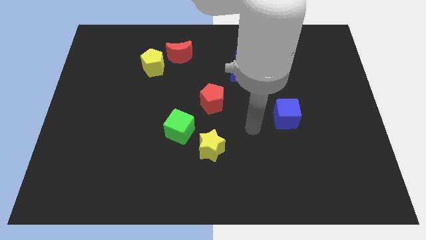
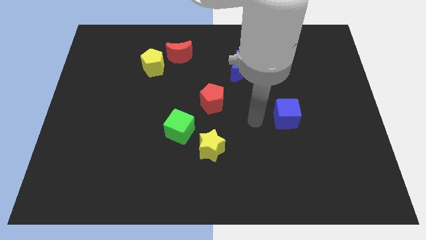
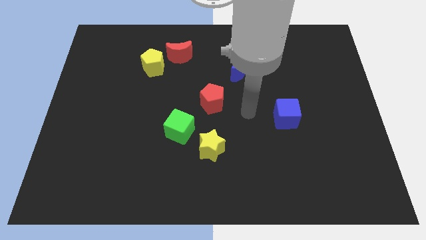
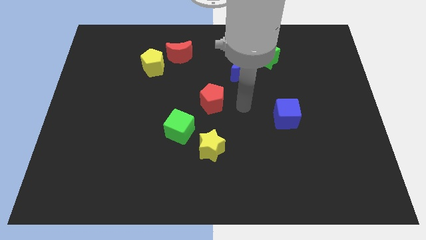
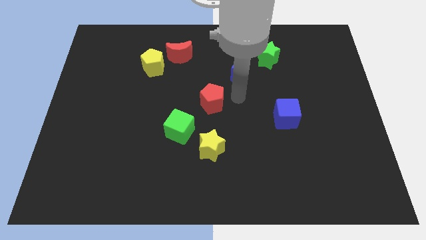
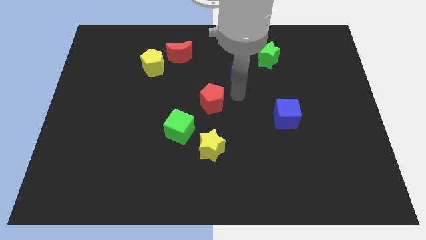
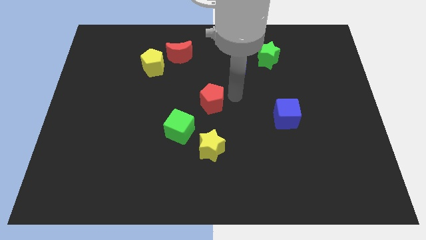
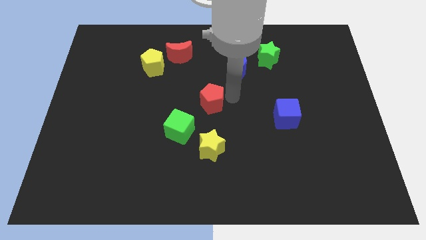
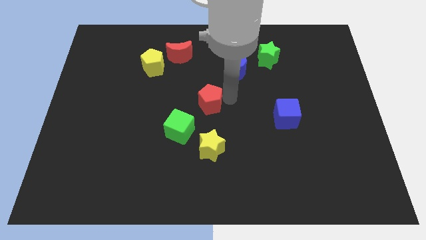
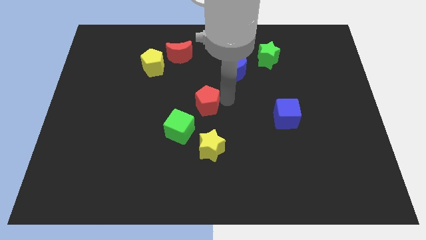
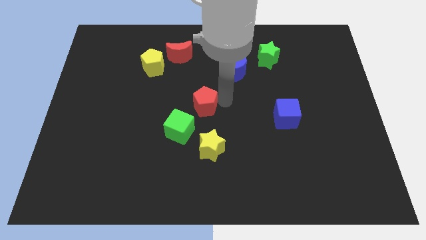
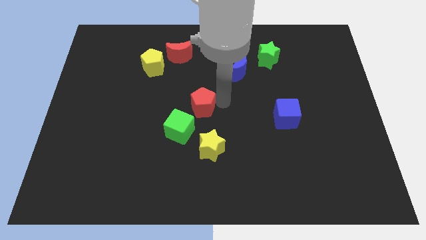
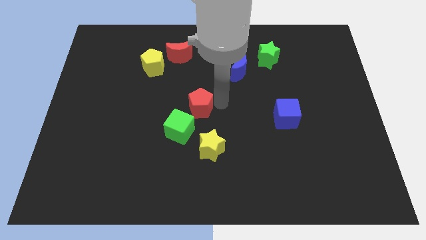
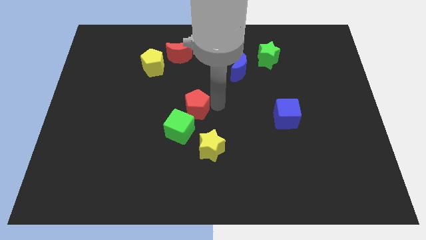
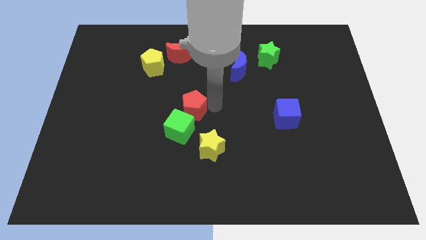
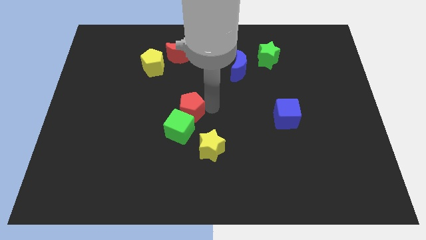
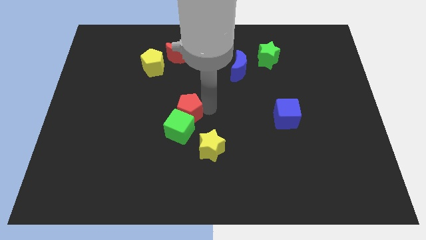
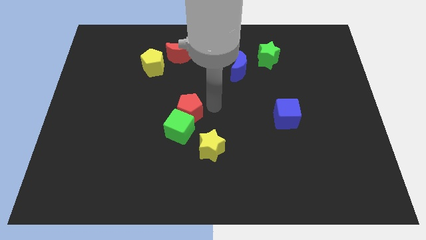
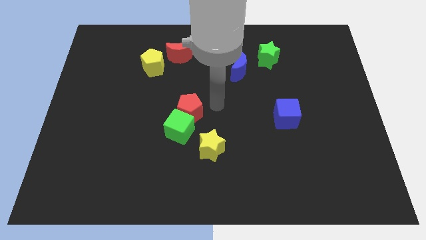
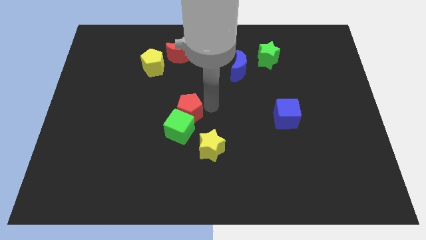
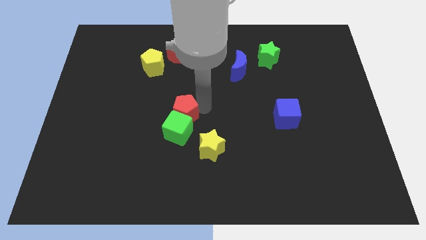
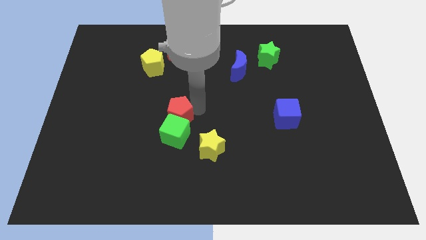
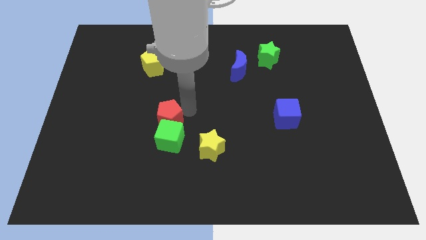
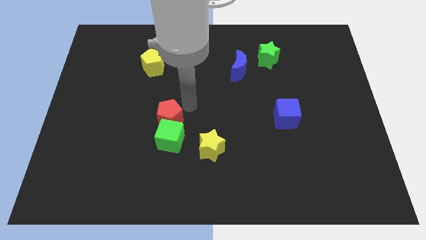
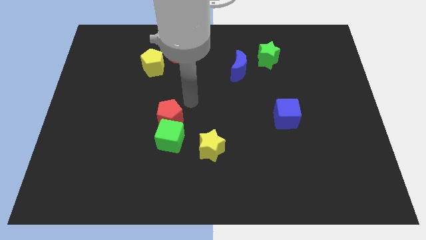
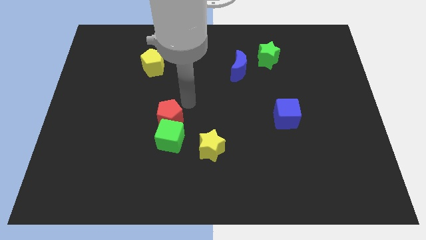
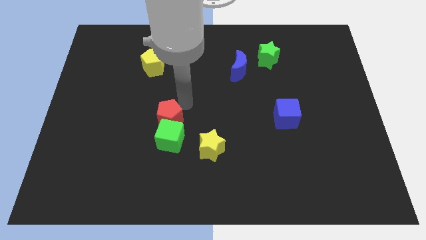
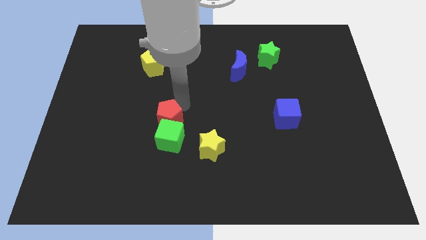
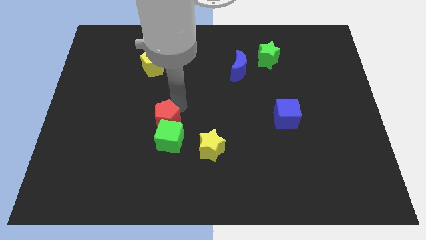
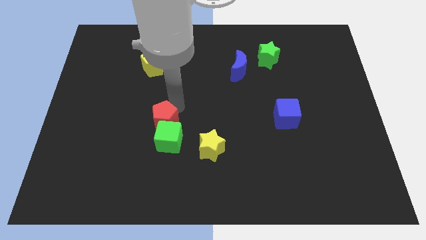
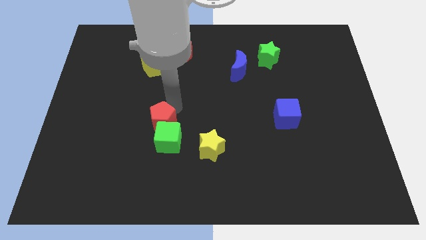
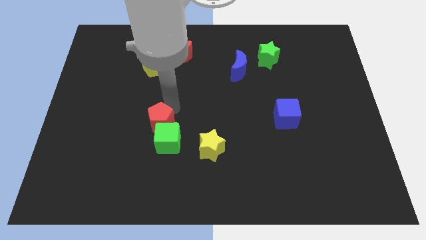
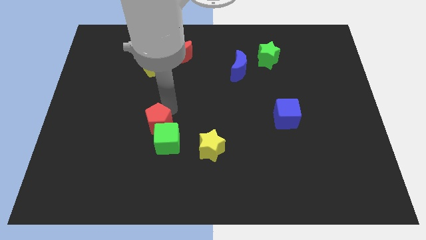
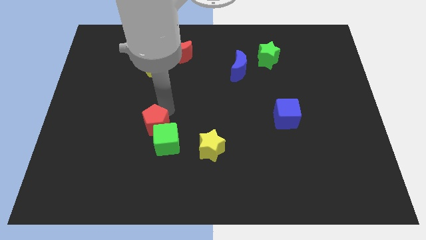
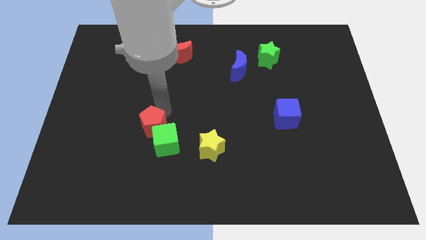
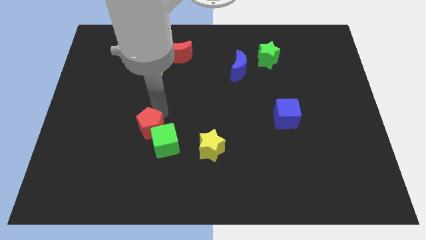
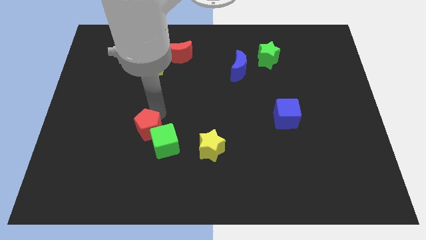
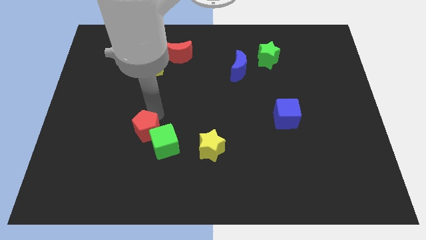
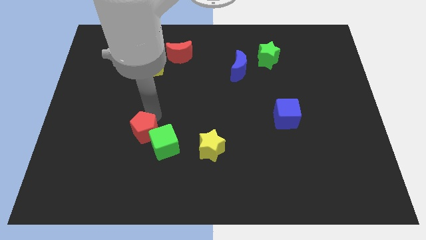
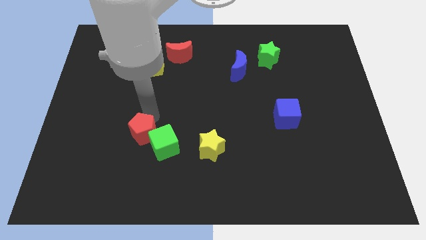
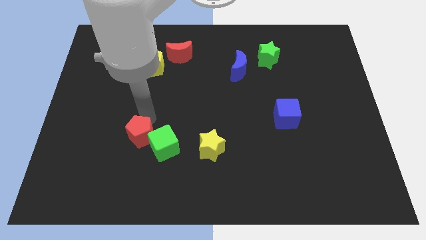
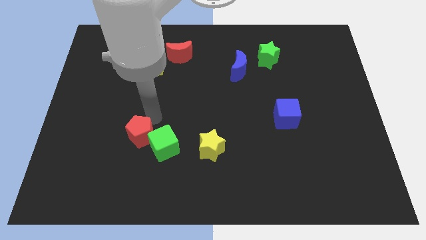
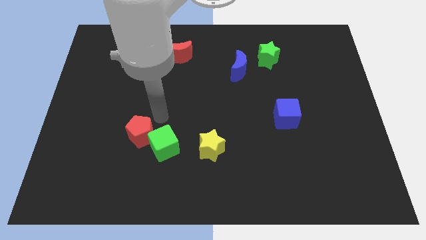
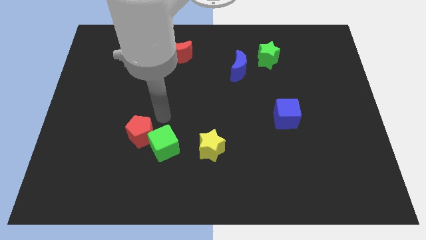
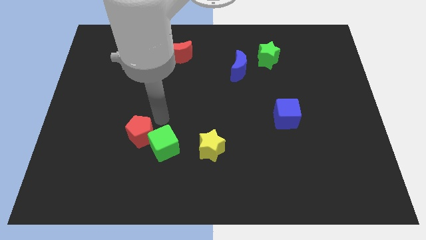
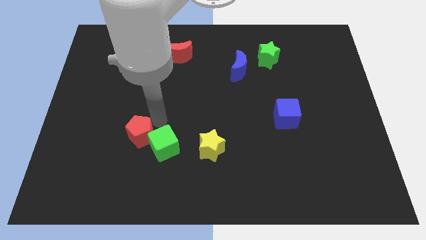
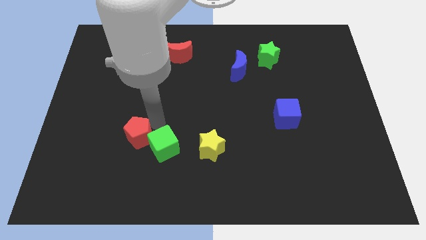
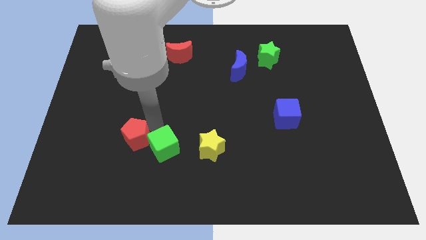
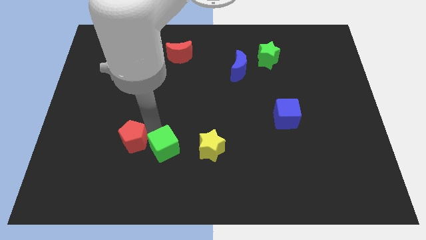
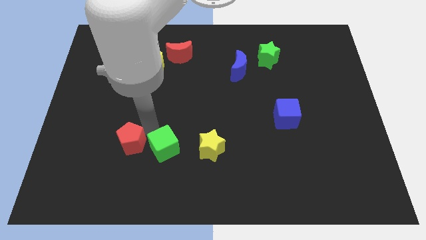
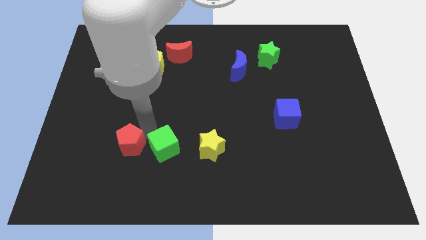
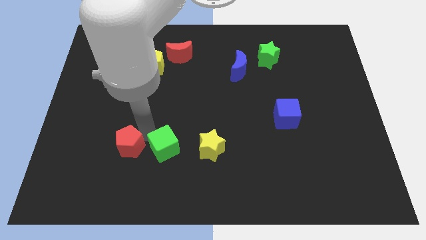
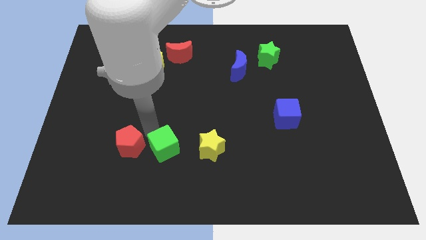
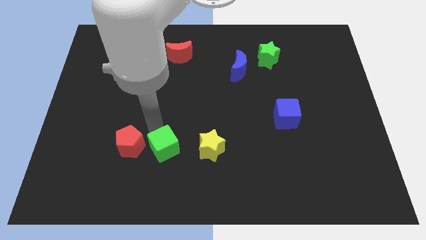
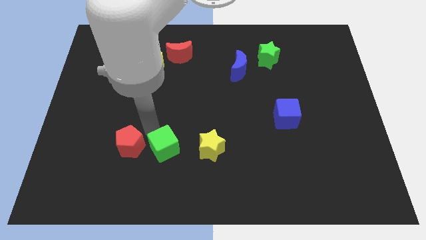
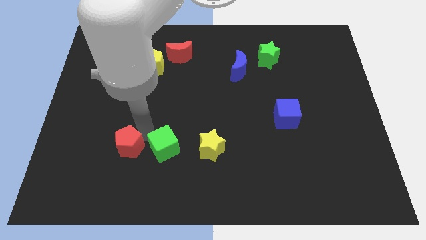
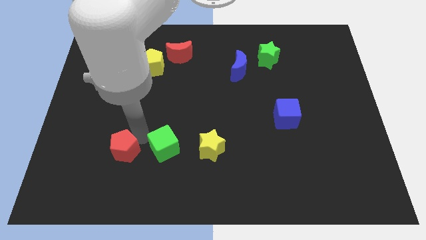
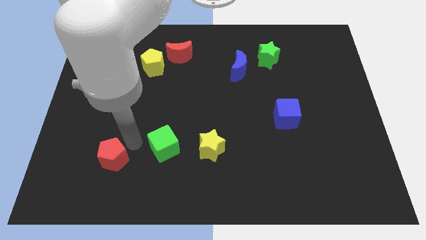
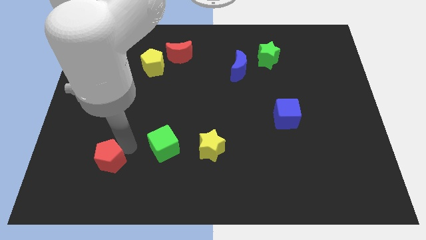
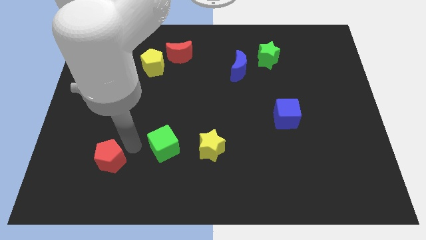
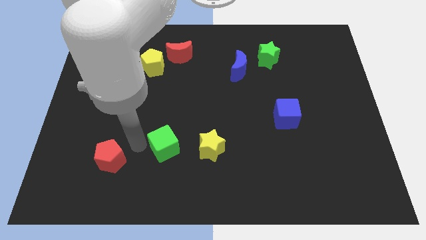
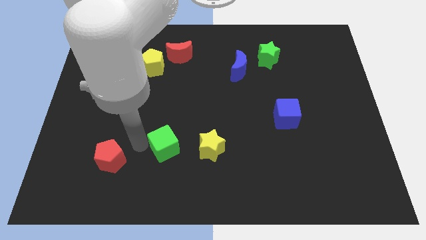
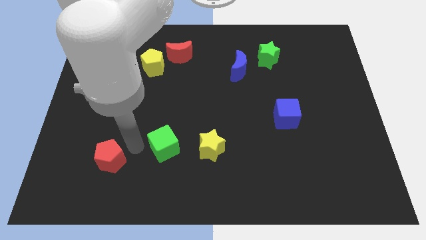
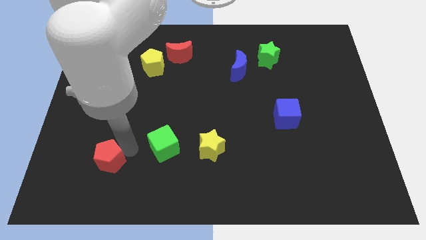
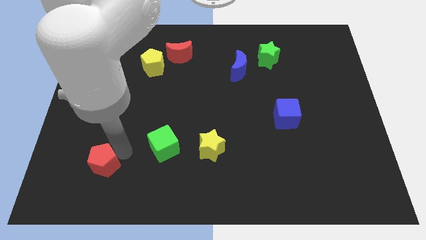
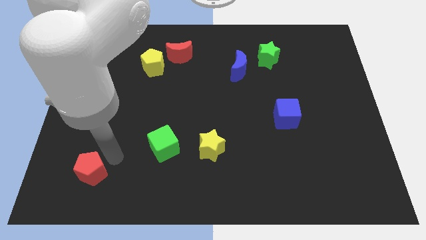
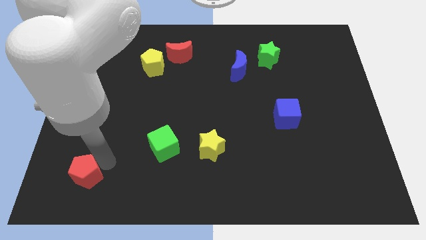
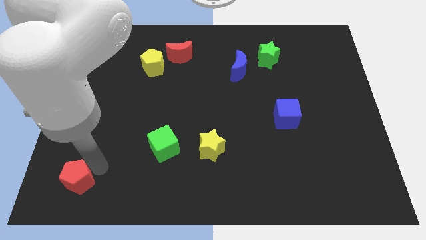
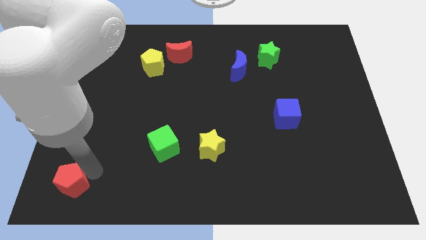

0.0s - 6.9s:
slide the red pentagon to the bottom left of the board
